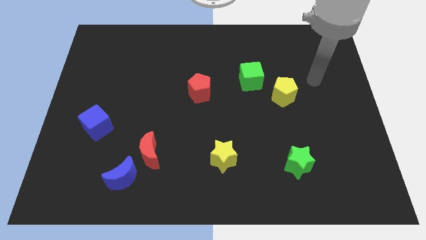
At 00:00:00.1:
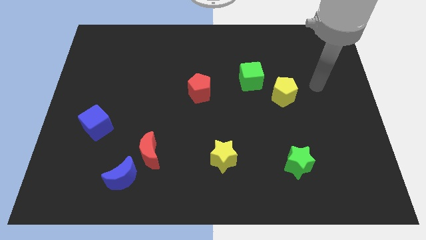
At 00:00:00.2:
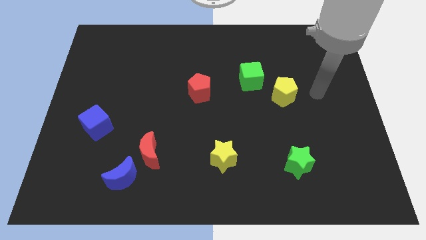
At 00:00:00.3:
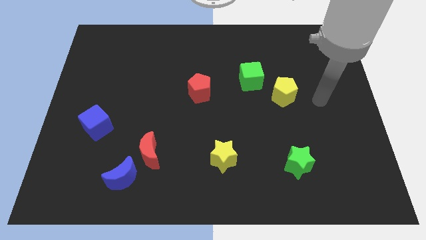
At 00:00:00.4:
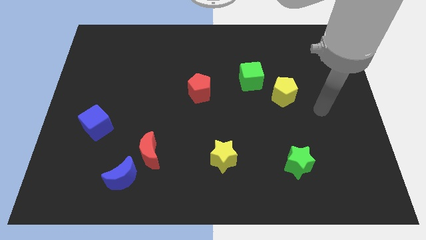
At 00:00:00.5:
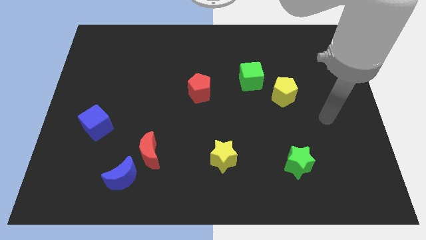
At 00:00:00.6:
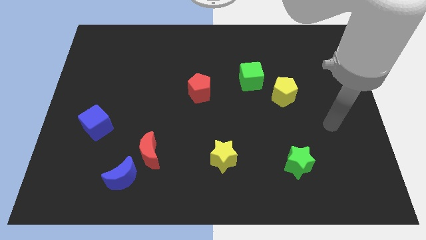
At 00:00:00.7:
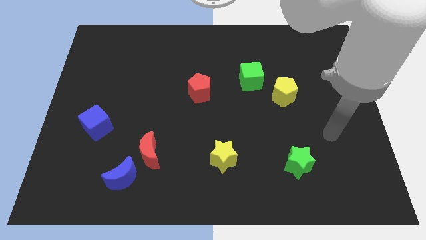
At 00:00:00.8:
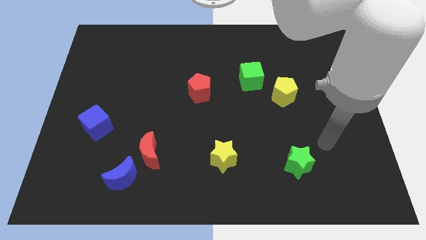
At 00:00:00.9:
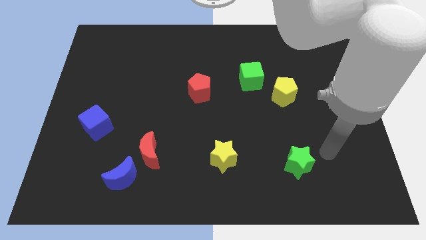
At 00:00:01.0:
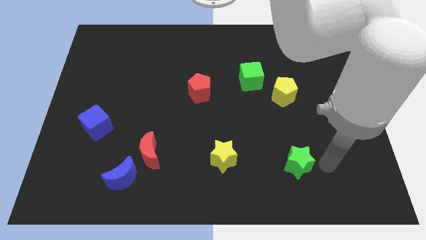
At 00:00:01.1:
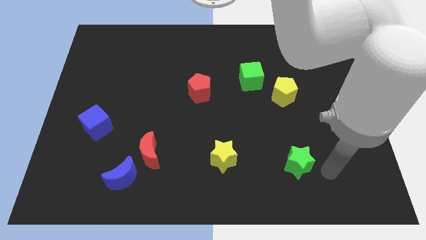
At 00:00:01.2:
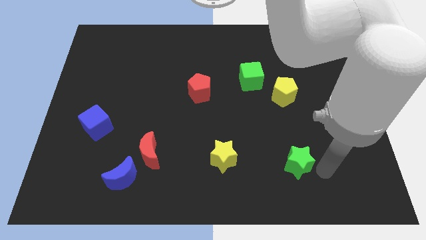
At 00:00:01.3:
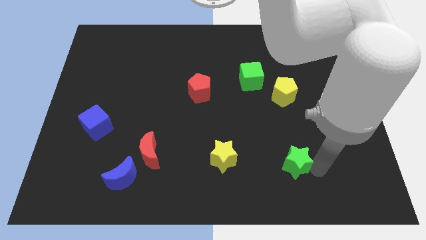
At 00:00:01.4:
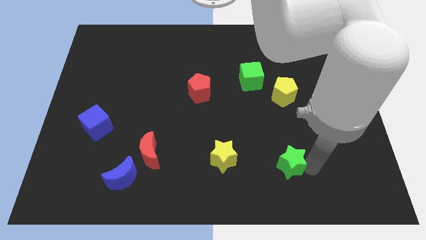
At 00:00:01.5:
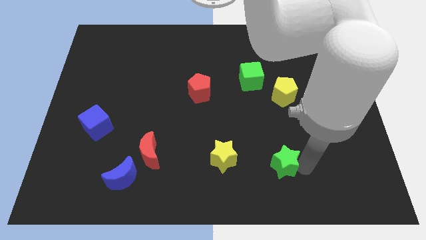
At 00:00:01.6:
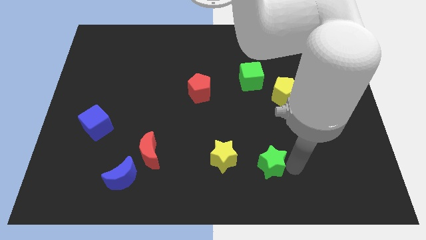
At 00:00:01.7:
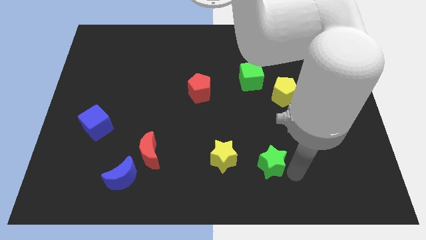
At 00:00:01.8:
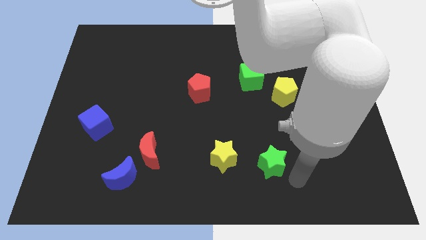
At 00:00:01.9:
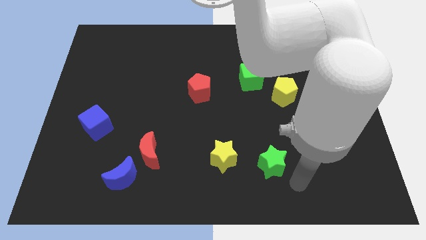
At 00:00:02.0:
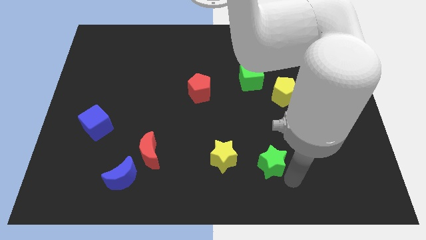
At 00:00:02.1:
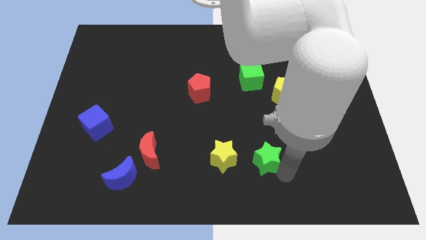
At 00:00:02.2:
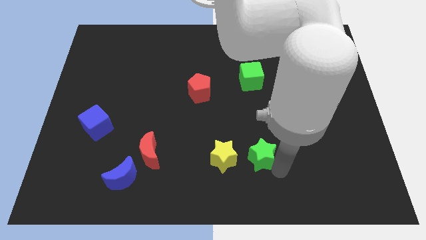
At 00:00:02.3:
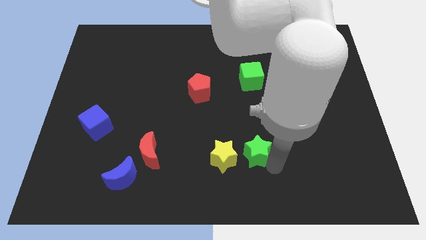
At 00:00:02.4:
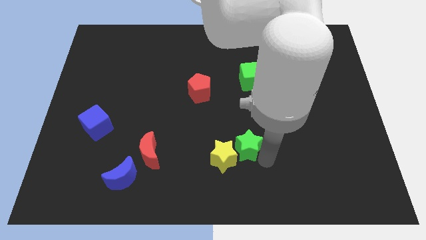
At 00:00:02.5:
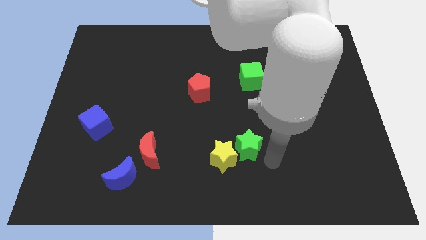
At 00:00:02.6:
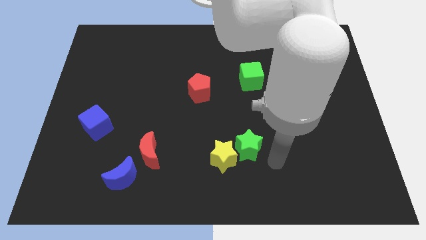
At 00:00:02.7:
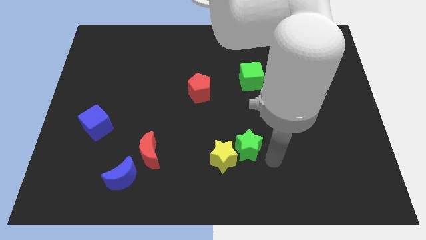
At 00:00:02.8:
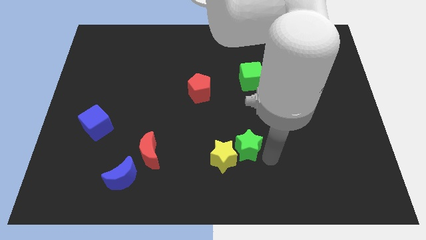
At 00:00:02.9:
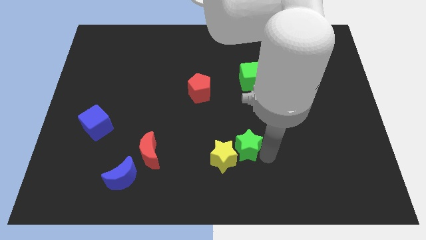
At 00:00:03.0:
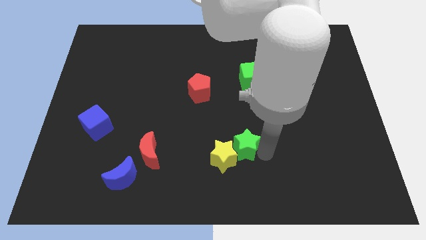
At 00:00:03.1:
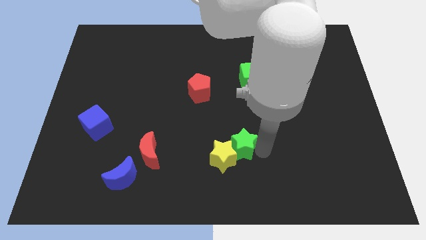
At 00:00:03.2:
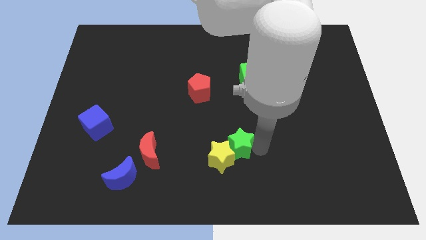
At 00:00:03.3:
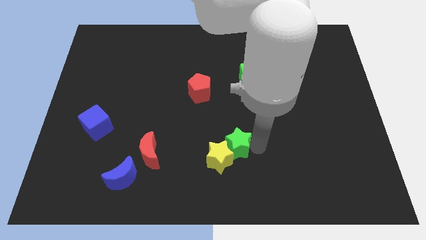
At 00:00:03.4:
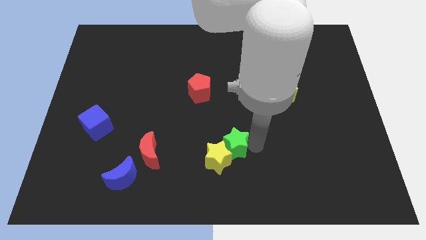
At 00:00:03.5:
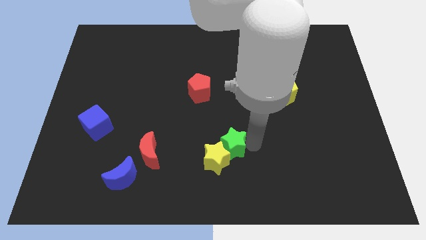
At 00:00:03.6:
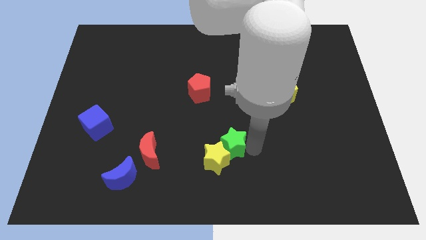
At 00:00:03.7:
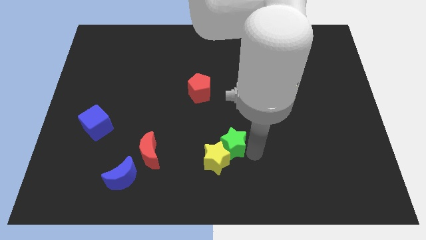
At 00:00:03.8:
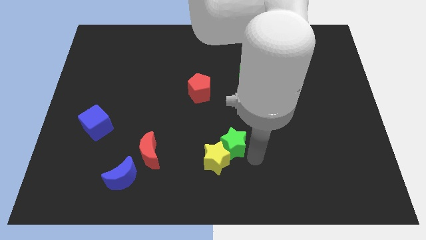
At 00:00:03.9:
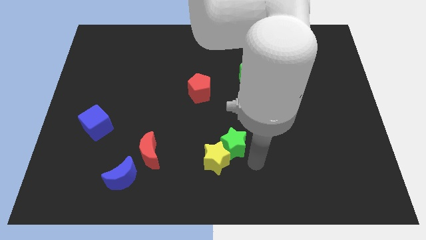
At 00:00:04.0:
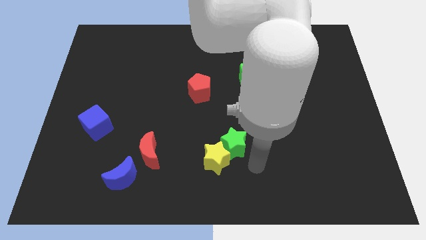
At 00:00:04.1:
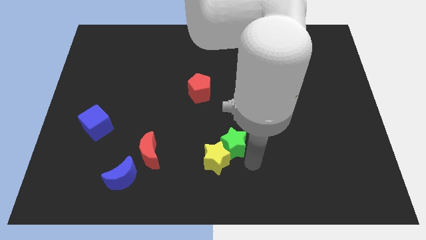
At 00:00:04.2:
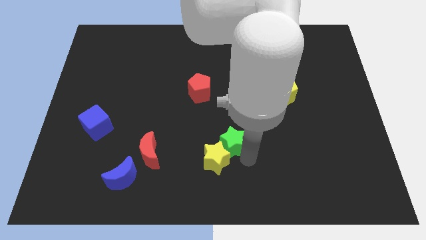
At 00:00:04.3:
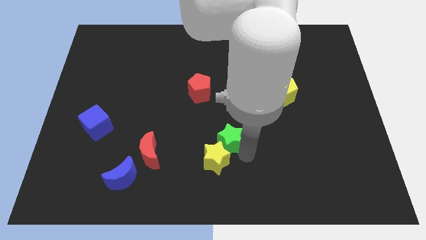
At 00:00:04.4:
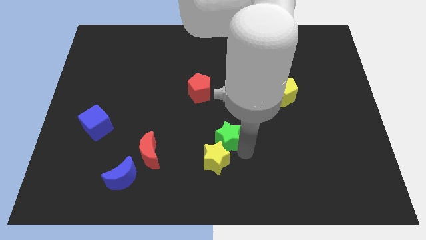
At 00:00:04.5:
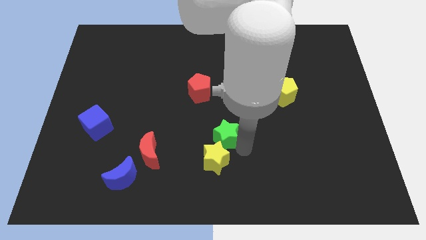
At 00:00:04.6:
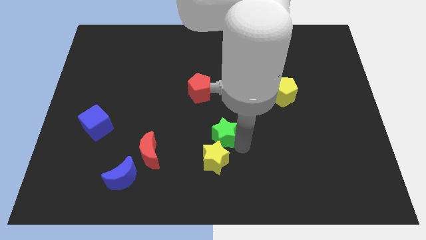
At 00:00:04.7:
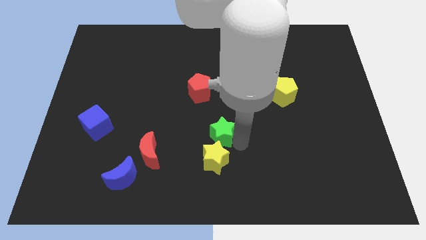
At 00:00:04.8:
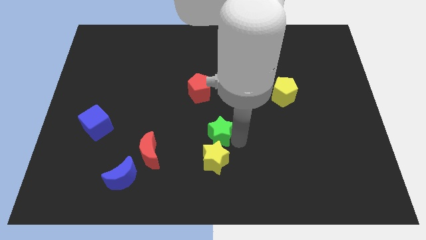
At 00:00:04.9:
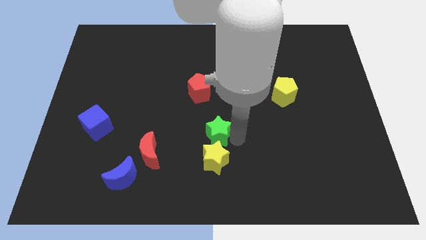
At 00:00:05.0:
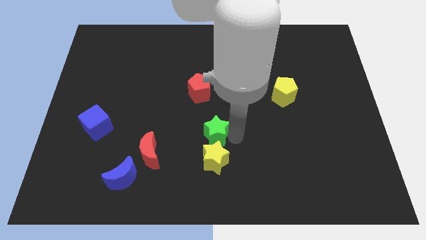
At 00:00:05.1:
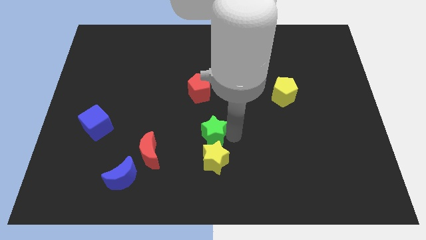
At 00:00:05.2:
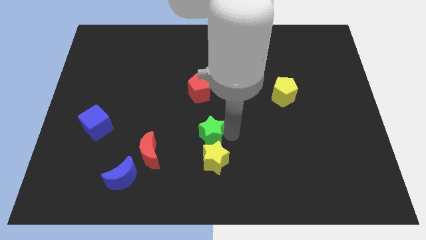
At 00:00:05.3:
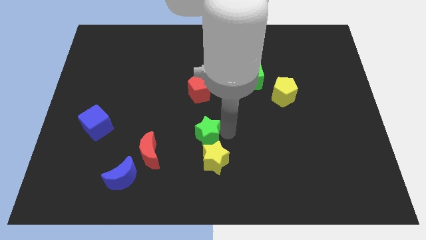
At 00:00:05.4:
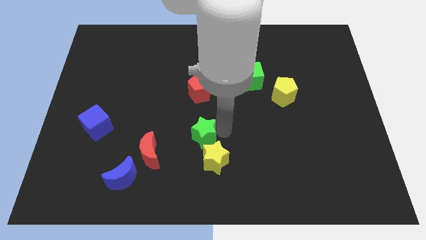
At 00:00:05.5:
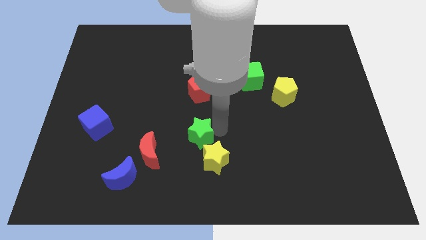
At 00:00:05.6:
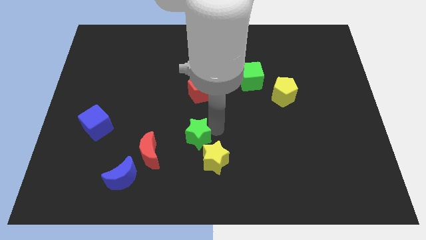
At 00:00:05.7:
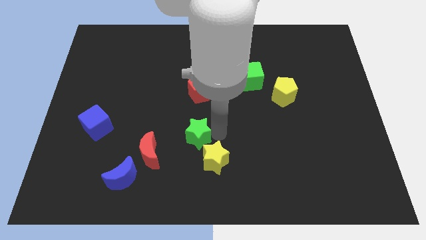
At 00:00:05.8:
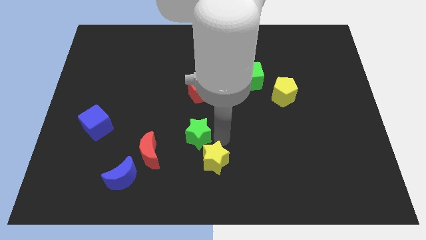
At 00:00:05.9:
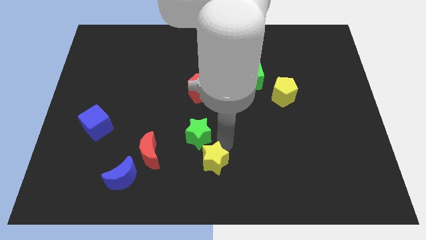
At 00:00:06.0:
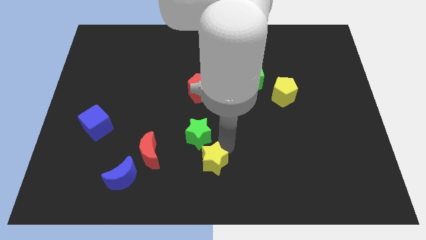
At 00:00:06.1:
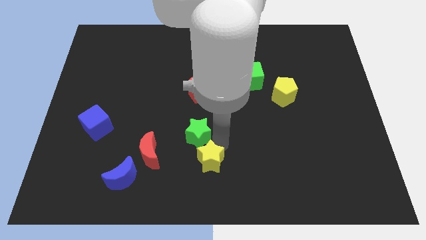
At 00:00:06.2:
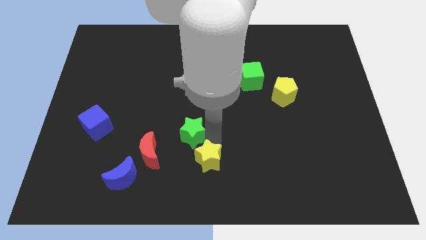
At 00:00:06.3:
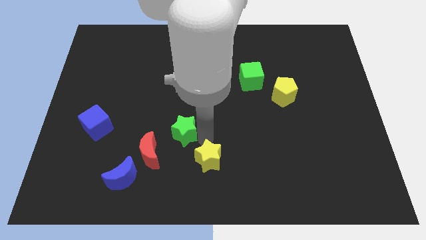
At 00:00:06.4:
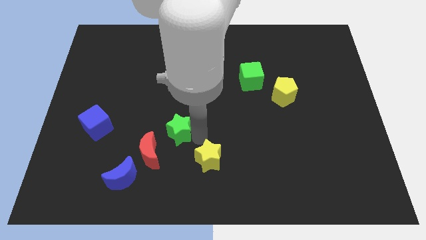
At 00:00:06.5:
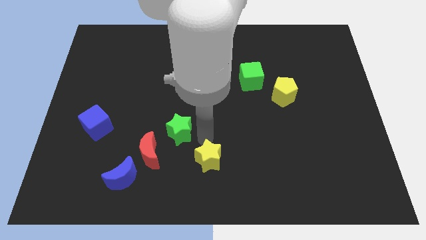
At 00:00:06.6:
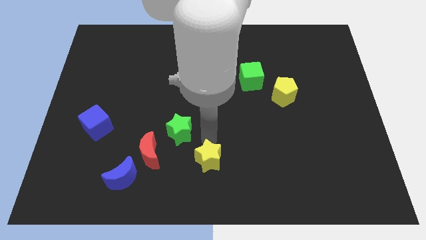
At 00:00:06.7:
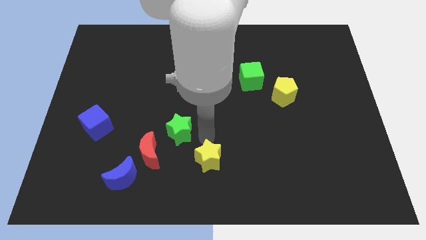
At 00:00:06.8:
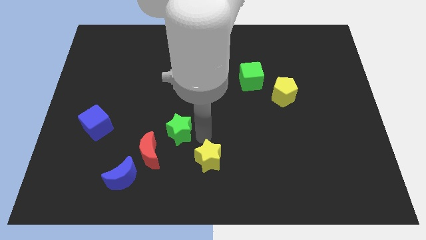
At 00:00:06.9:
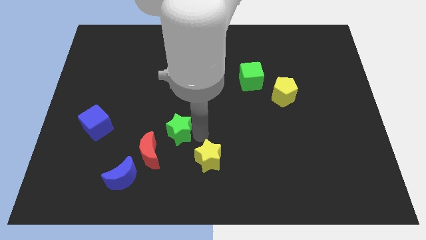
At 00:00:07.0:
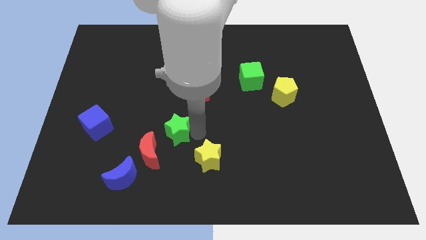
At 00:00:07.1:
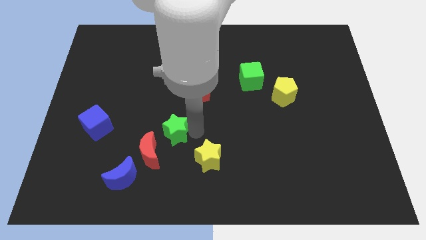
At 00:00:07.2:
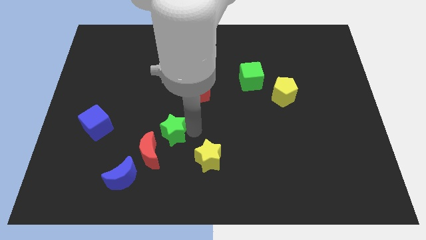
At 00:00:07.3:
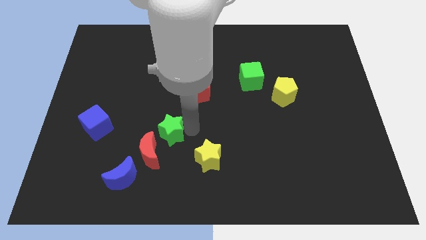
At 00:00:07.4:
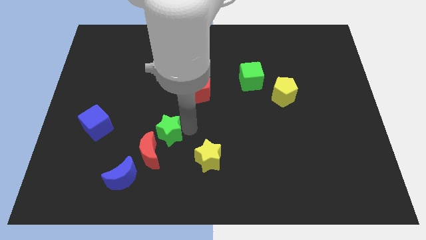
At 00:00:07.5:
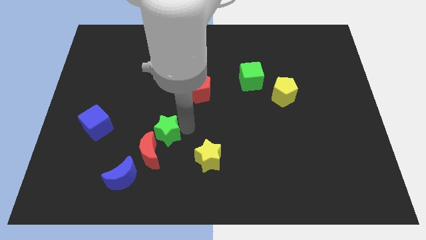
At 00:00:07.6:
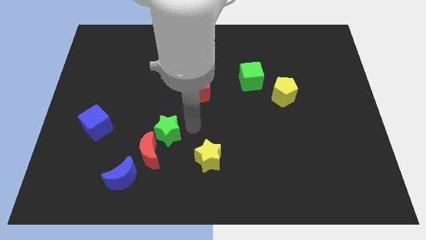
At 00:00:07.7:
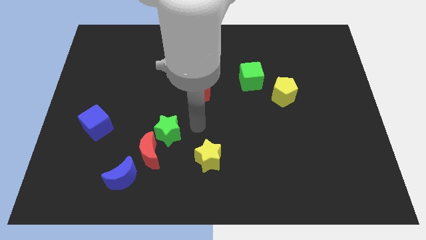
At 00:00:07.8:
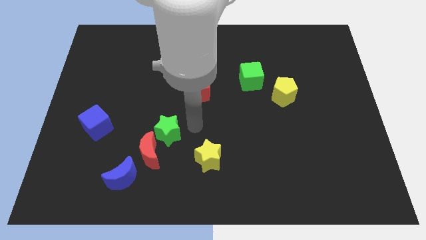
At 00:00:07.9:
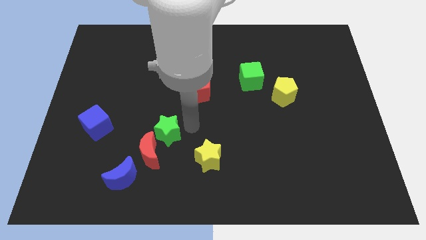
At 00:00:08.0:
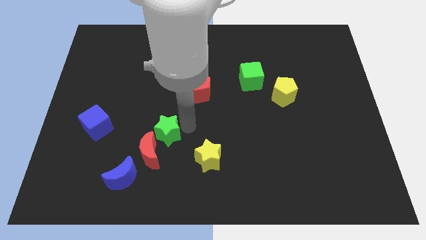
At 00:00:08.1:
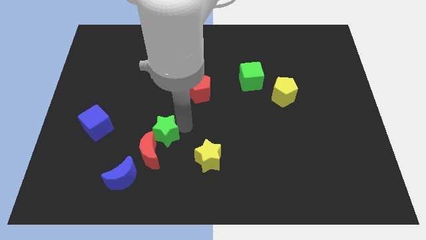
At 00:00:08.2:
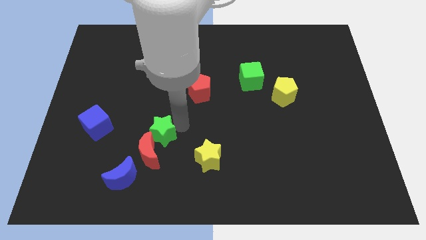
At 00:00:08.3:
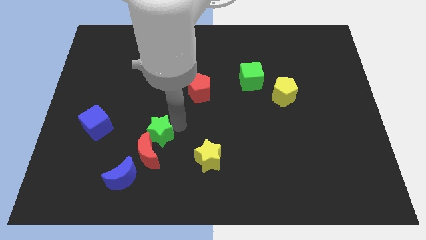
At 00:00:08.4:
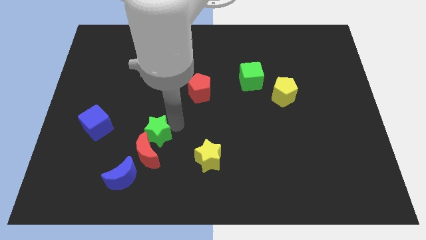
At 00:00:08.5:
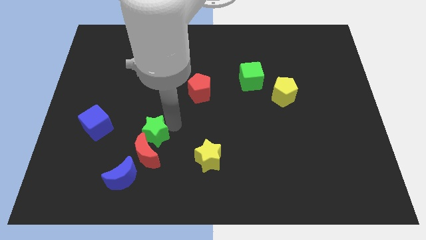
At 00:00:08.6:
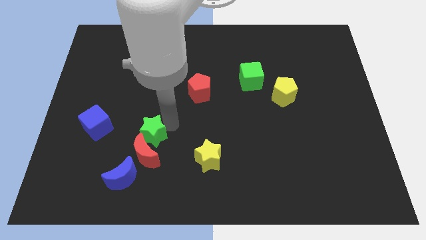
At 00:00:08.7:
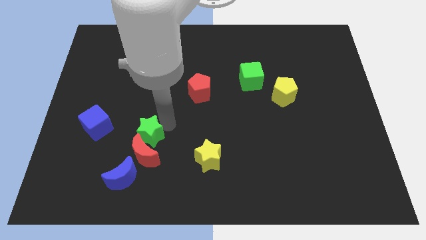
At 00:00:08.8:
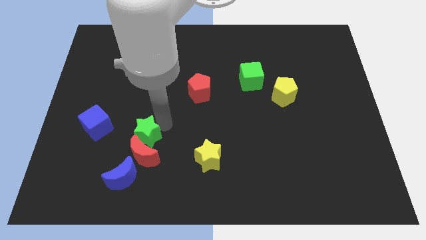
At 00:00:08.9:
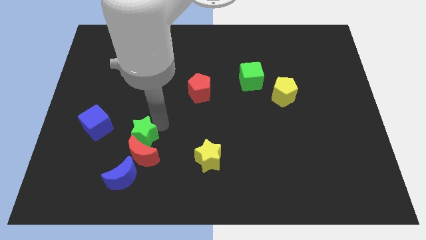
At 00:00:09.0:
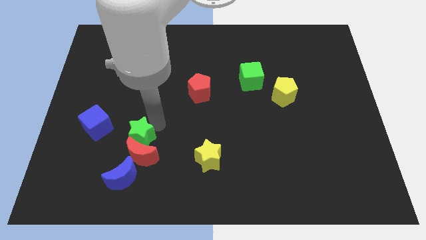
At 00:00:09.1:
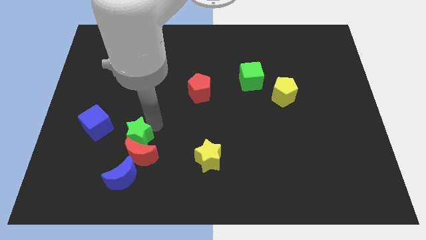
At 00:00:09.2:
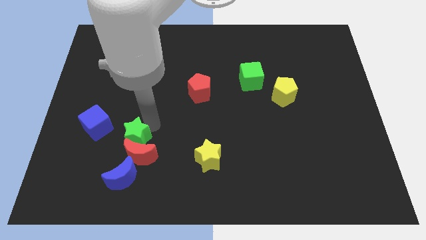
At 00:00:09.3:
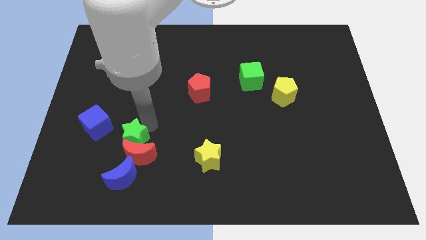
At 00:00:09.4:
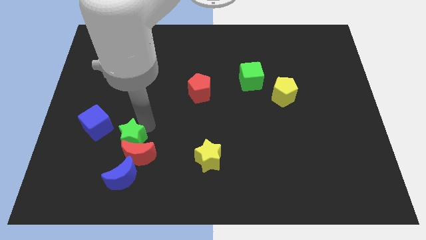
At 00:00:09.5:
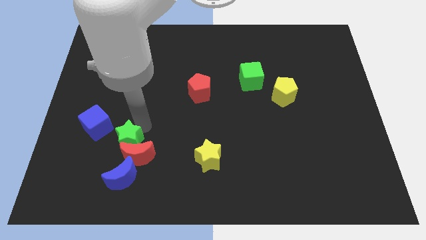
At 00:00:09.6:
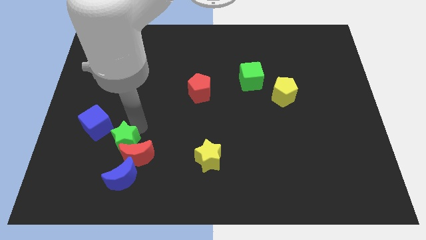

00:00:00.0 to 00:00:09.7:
slide the green star left of the red moon
